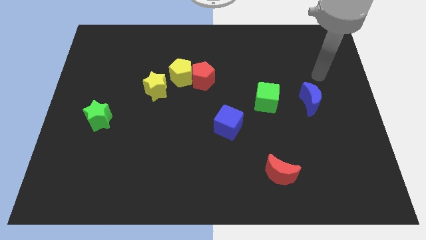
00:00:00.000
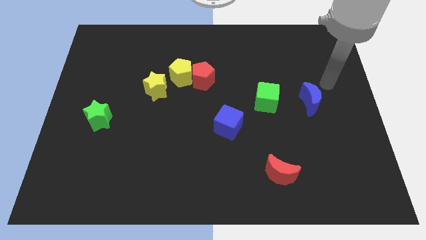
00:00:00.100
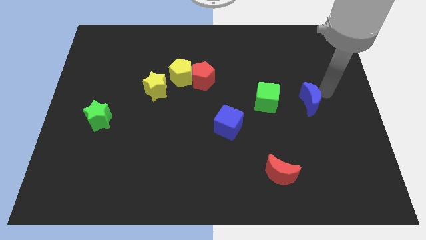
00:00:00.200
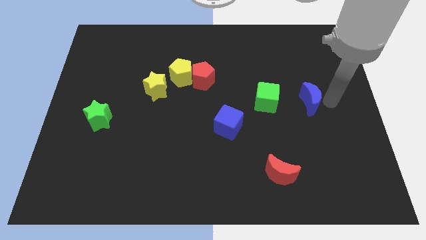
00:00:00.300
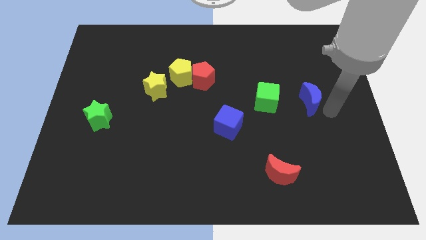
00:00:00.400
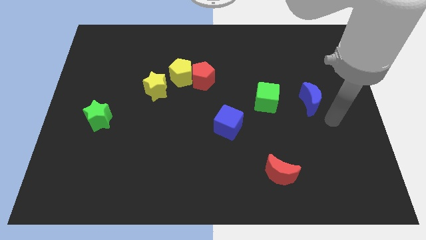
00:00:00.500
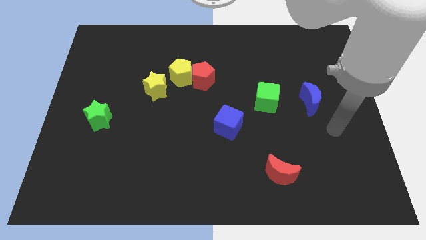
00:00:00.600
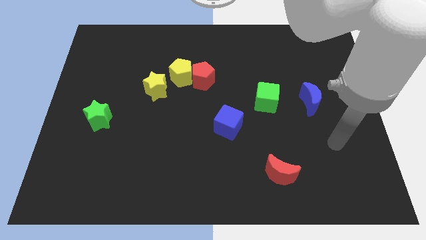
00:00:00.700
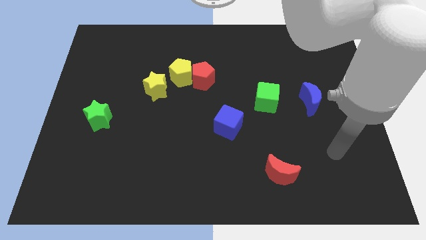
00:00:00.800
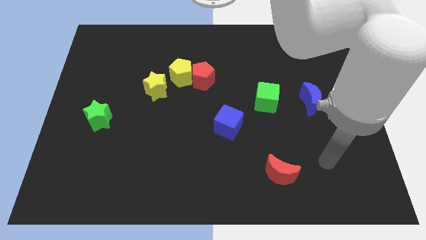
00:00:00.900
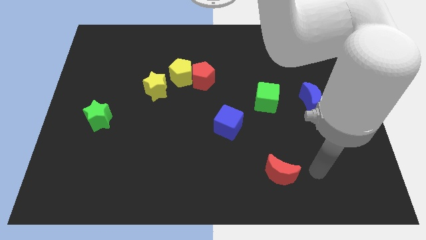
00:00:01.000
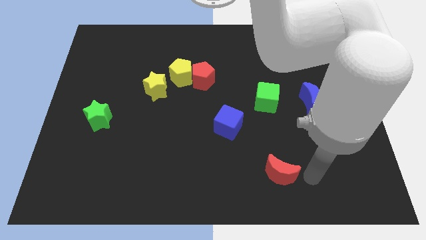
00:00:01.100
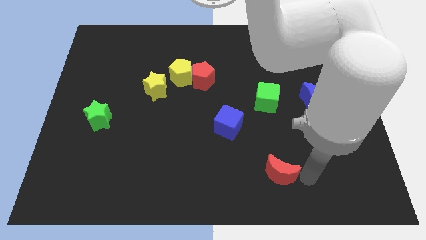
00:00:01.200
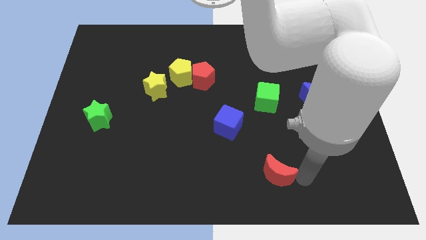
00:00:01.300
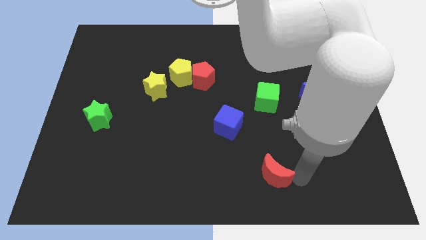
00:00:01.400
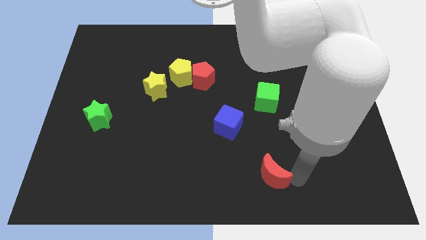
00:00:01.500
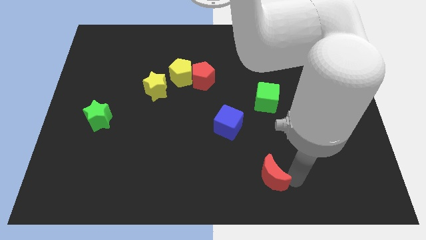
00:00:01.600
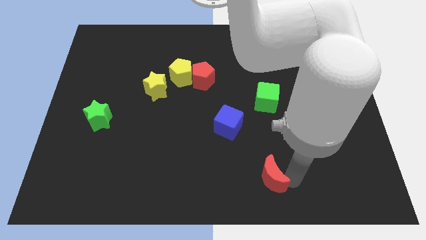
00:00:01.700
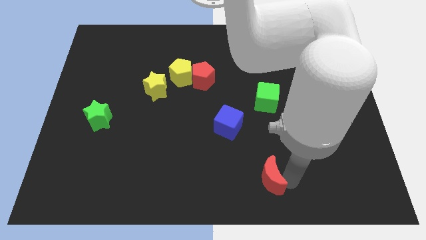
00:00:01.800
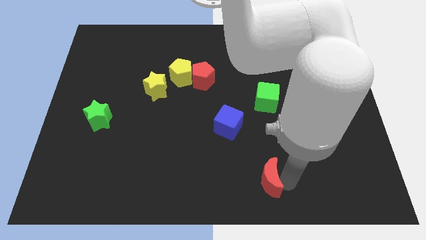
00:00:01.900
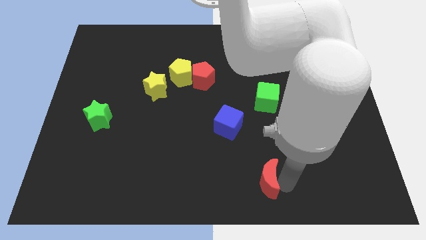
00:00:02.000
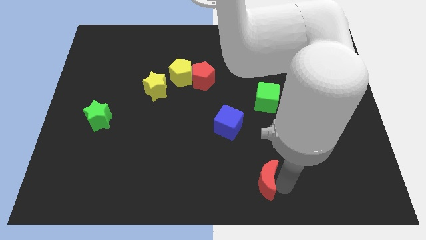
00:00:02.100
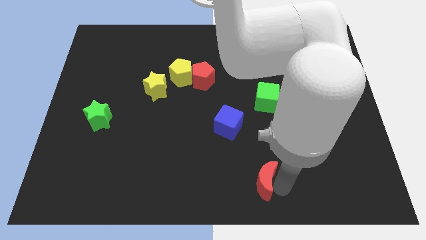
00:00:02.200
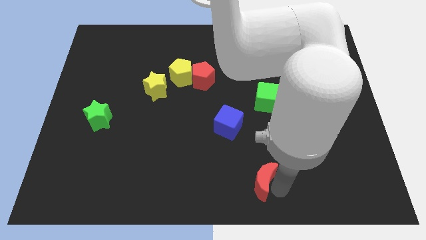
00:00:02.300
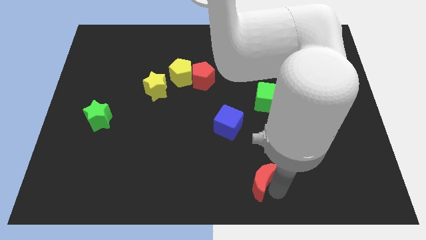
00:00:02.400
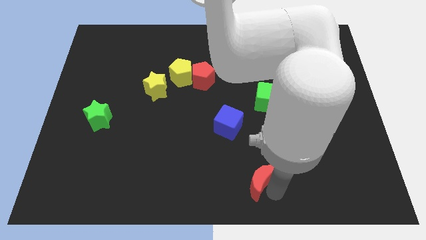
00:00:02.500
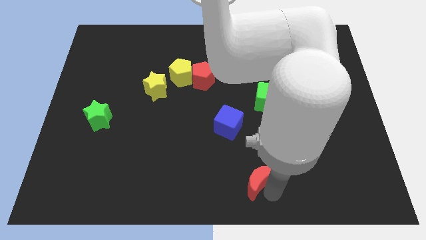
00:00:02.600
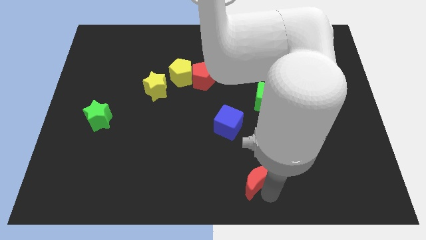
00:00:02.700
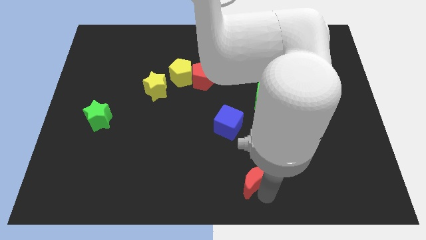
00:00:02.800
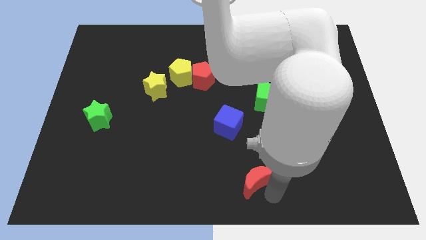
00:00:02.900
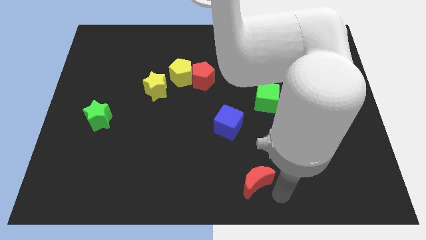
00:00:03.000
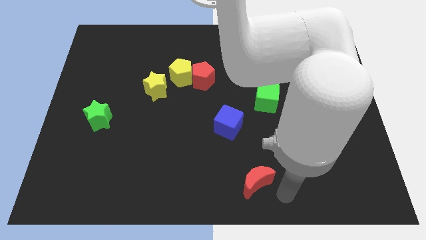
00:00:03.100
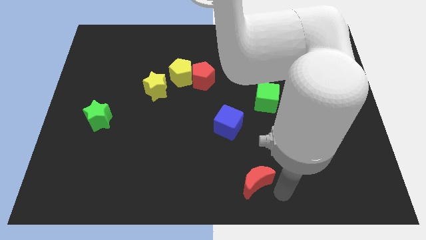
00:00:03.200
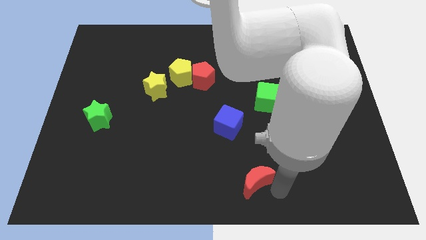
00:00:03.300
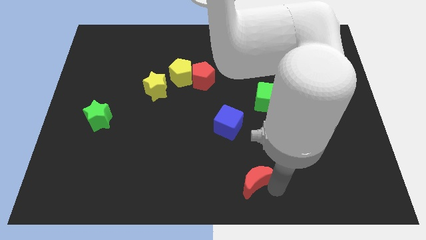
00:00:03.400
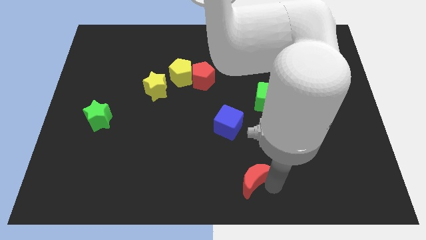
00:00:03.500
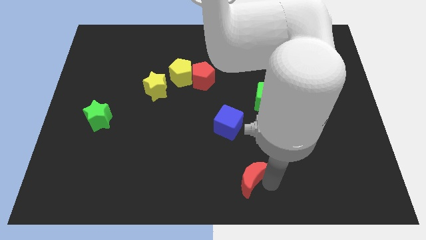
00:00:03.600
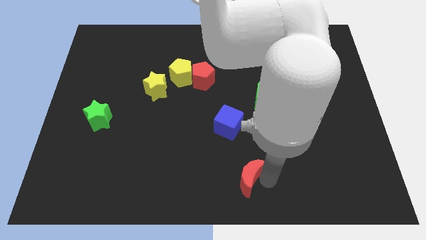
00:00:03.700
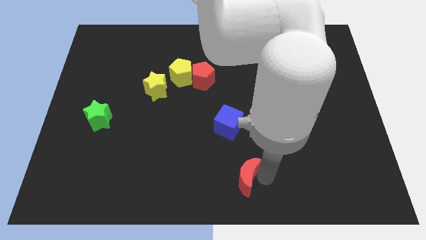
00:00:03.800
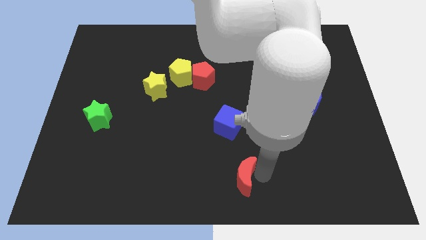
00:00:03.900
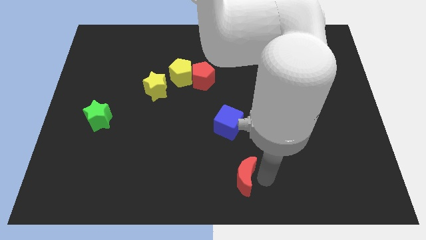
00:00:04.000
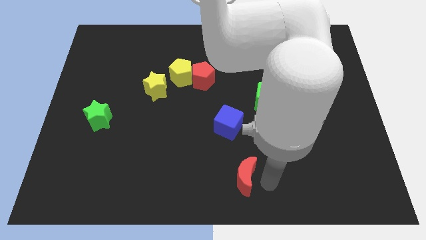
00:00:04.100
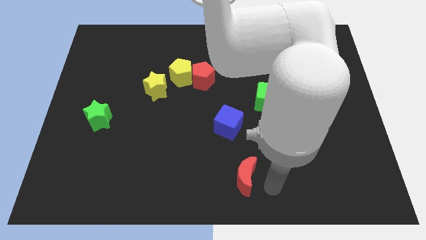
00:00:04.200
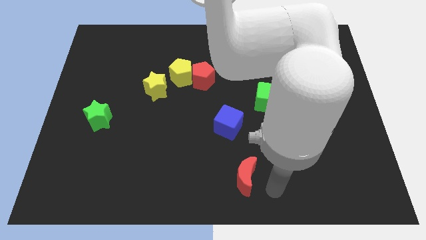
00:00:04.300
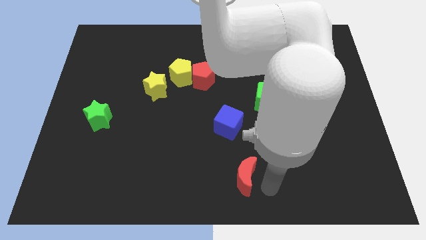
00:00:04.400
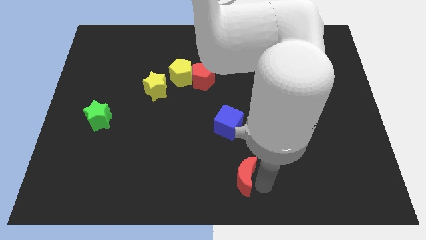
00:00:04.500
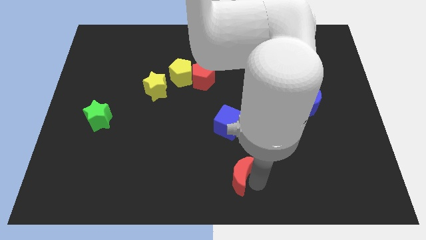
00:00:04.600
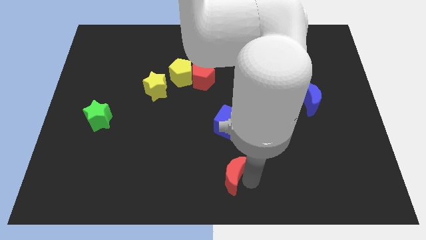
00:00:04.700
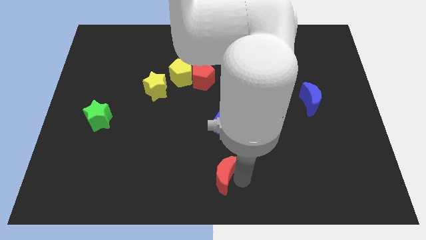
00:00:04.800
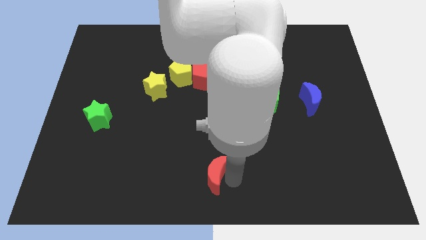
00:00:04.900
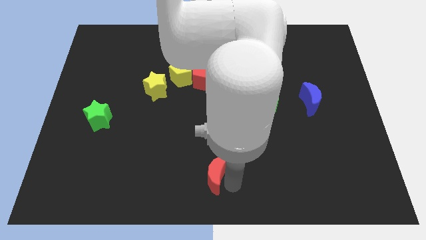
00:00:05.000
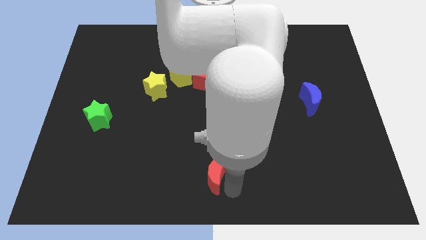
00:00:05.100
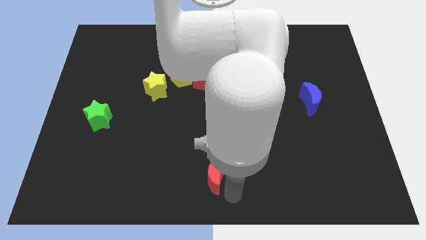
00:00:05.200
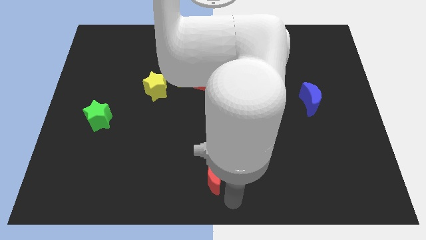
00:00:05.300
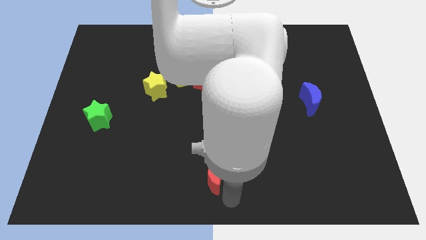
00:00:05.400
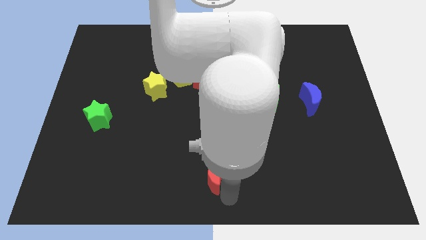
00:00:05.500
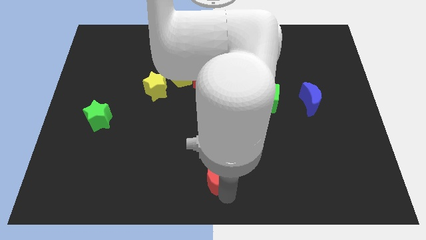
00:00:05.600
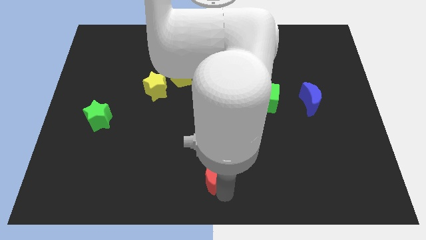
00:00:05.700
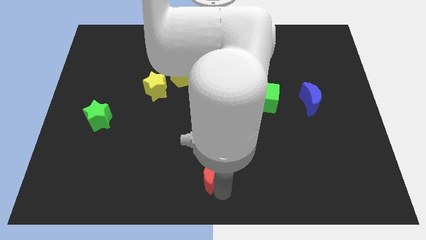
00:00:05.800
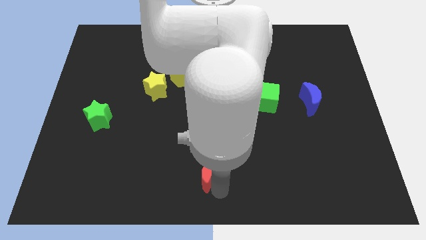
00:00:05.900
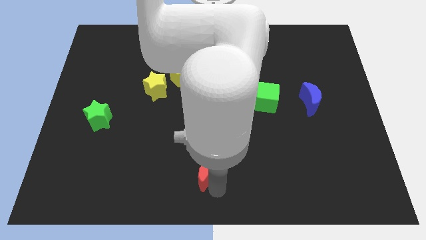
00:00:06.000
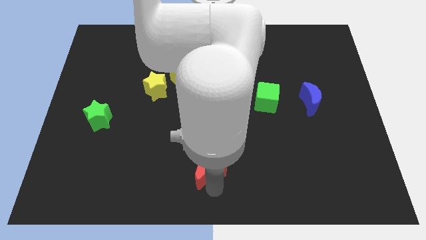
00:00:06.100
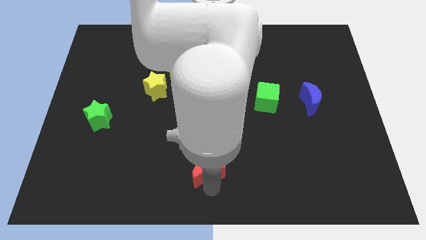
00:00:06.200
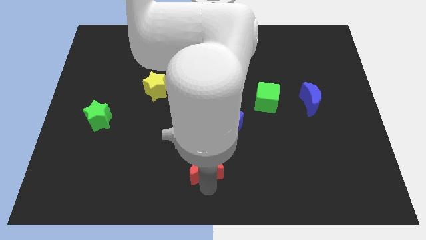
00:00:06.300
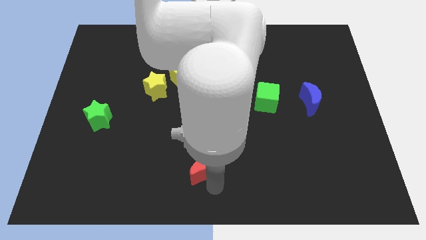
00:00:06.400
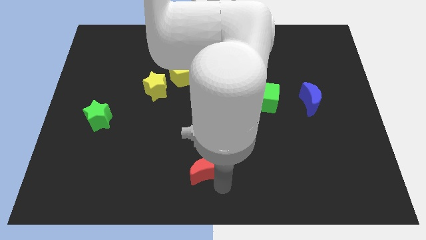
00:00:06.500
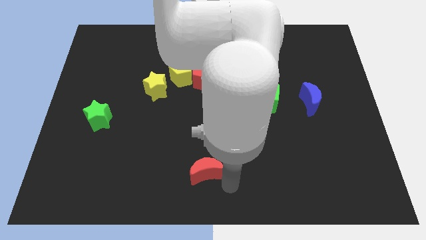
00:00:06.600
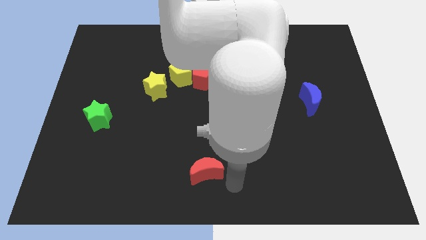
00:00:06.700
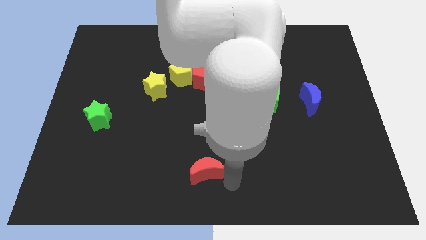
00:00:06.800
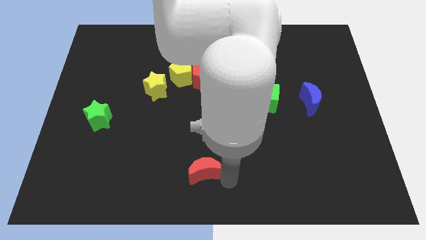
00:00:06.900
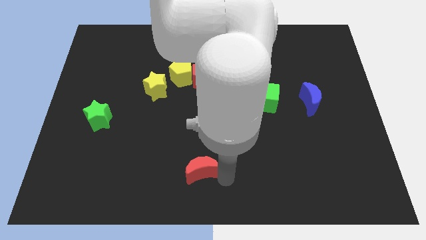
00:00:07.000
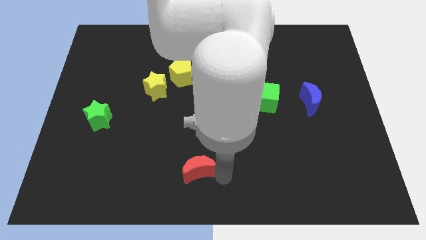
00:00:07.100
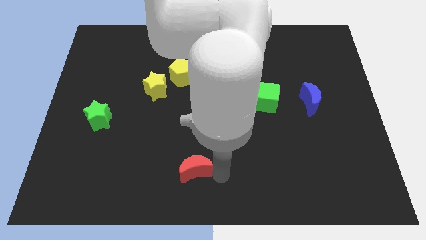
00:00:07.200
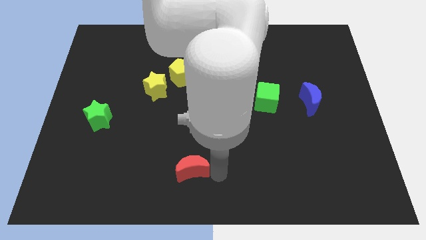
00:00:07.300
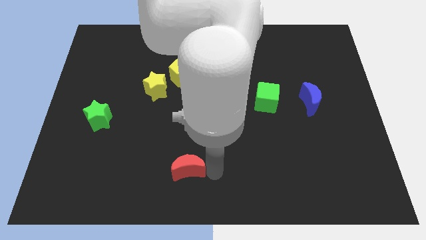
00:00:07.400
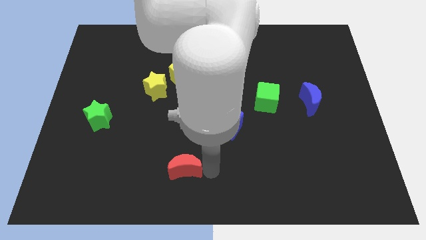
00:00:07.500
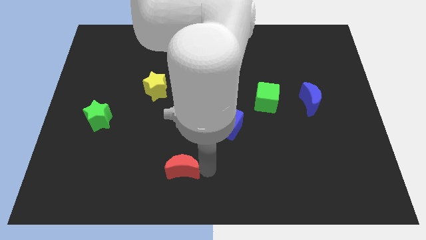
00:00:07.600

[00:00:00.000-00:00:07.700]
move the red moon to the left

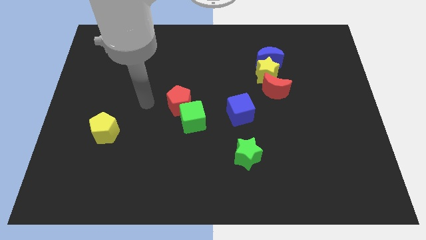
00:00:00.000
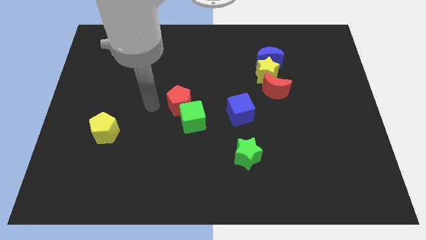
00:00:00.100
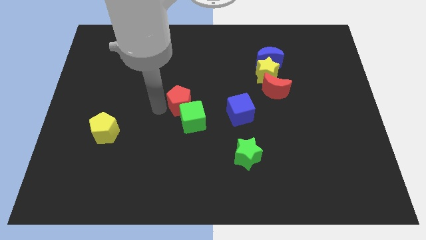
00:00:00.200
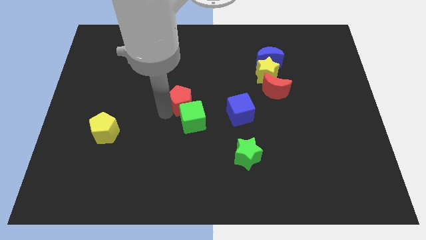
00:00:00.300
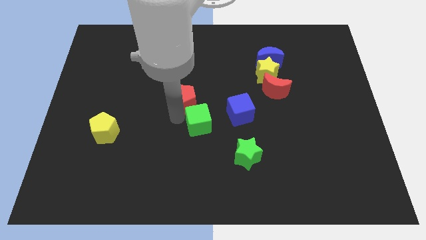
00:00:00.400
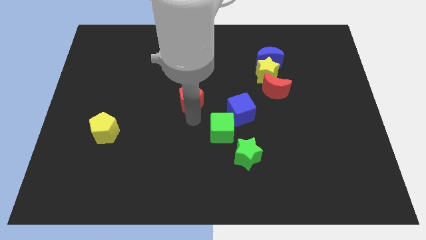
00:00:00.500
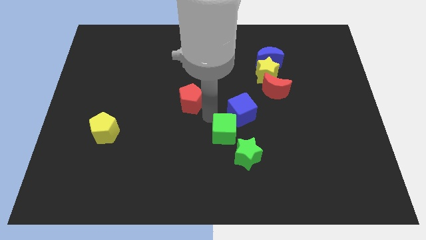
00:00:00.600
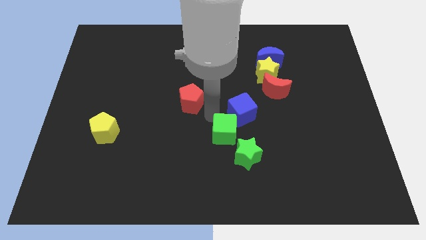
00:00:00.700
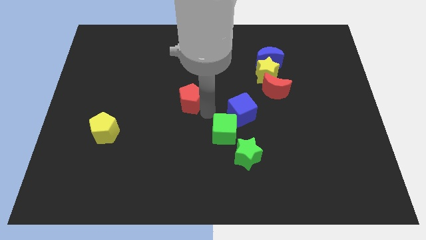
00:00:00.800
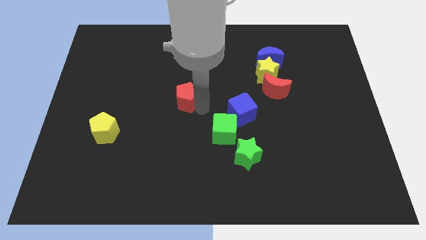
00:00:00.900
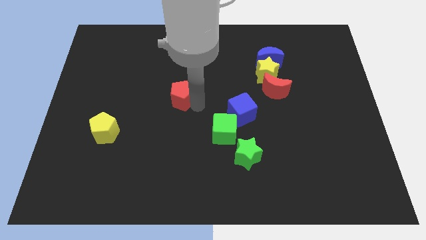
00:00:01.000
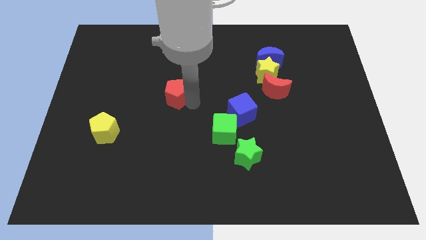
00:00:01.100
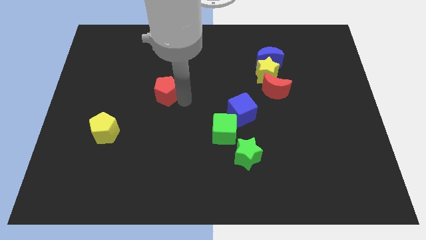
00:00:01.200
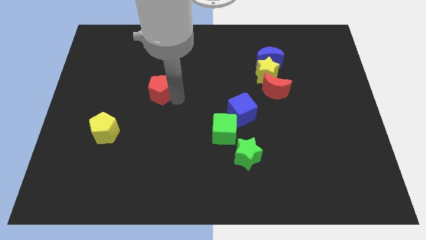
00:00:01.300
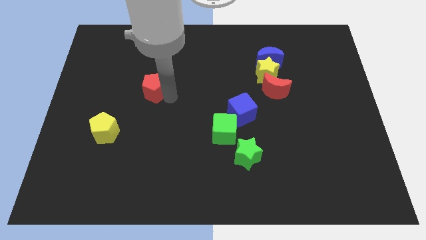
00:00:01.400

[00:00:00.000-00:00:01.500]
push the red pentagon upwards and to the left a bit
